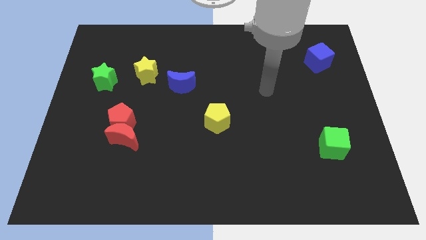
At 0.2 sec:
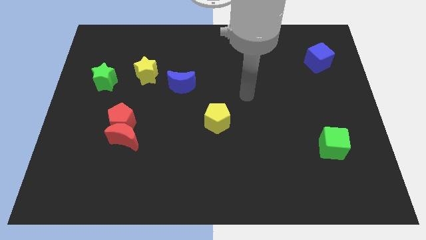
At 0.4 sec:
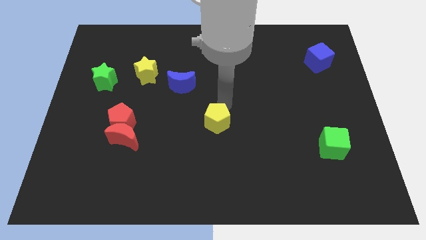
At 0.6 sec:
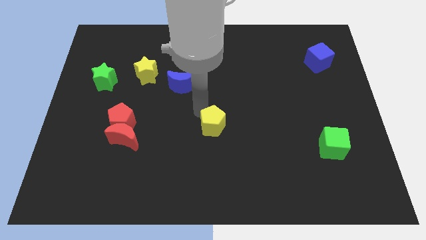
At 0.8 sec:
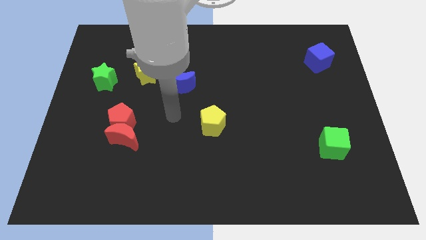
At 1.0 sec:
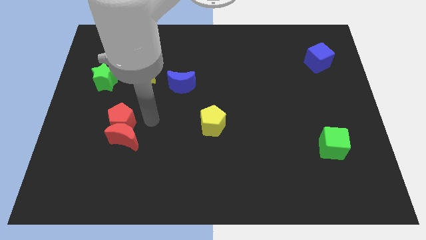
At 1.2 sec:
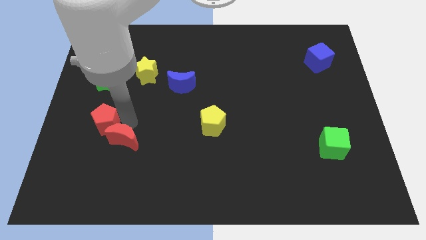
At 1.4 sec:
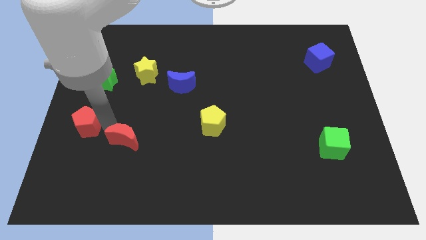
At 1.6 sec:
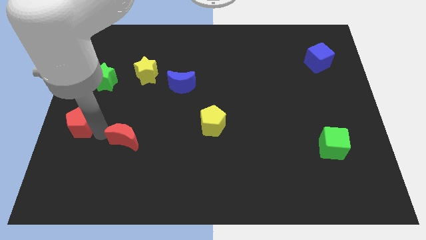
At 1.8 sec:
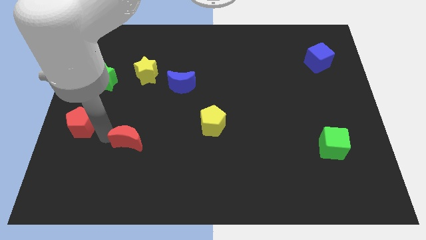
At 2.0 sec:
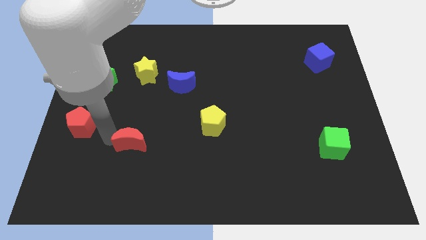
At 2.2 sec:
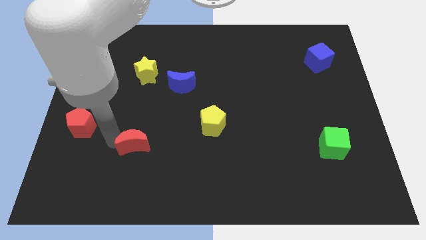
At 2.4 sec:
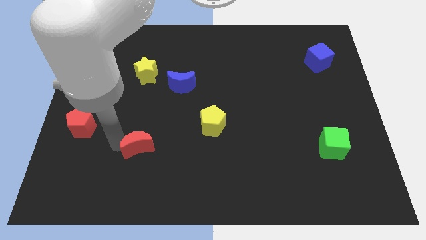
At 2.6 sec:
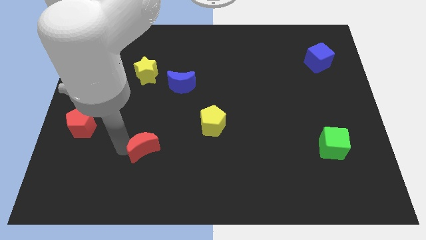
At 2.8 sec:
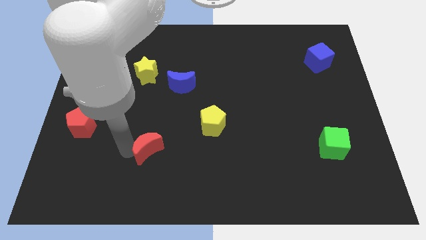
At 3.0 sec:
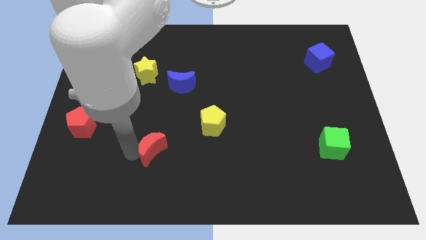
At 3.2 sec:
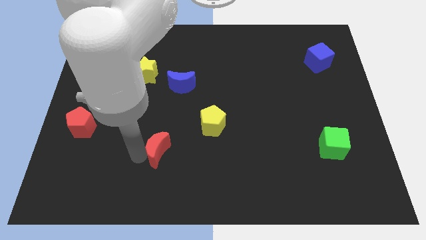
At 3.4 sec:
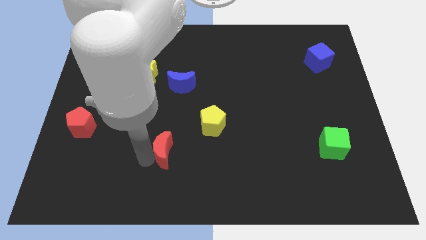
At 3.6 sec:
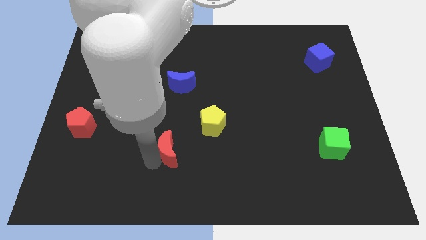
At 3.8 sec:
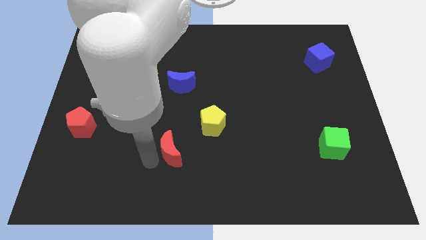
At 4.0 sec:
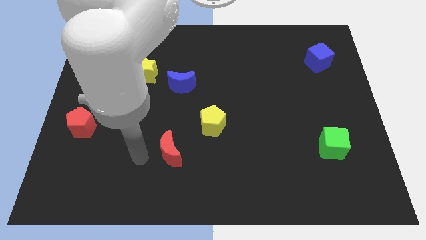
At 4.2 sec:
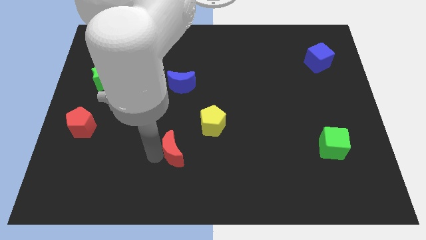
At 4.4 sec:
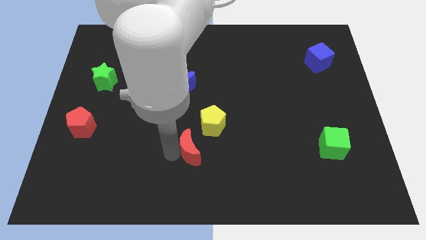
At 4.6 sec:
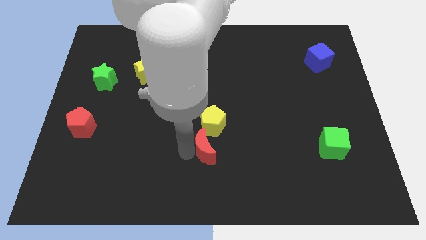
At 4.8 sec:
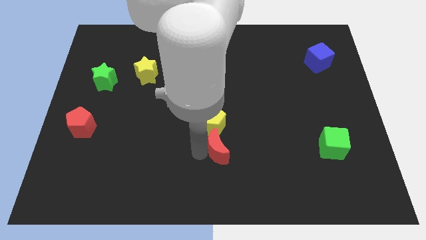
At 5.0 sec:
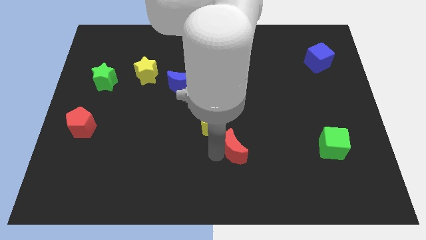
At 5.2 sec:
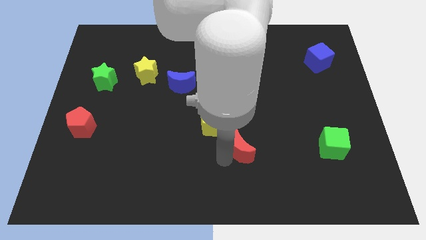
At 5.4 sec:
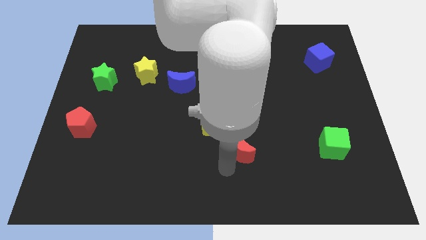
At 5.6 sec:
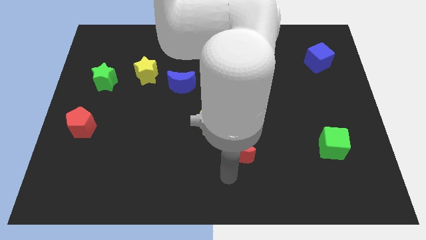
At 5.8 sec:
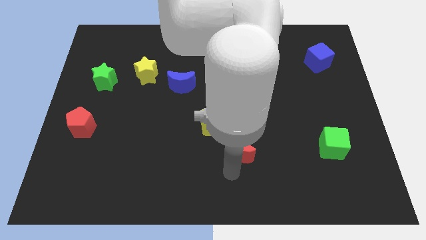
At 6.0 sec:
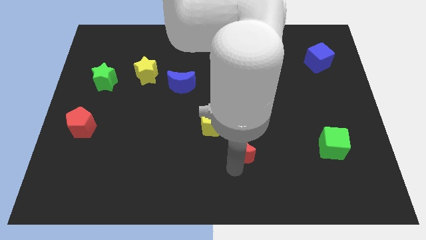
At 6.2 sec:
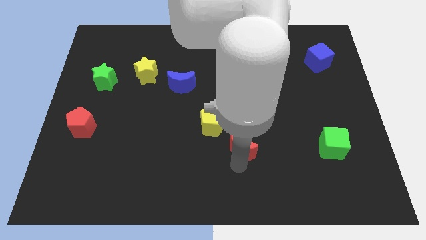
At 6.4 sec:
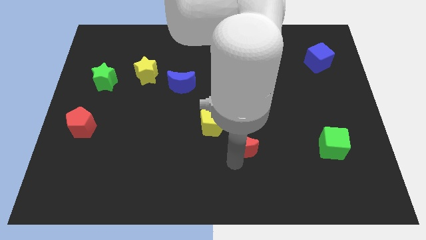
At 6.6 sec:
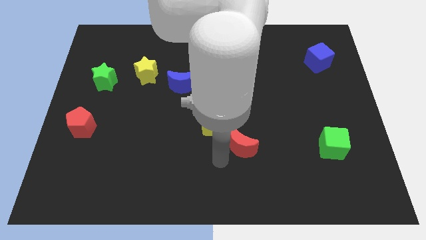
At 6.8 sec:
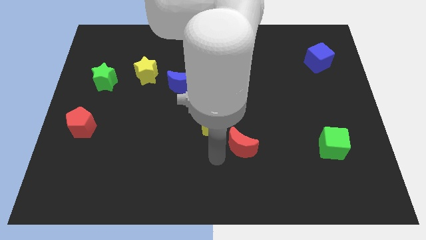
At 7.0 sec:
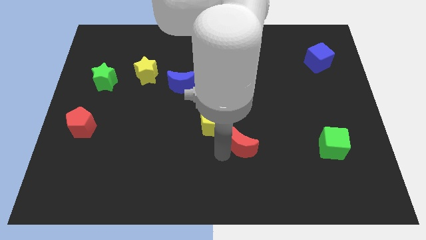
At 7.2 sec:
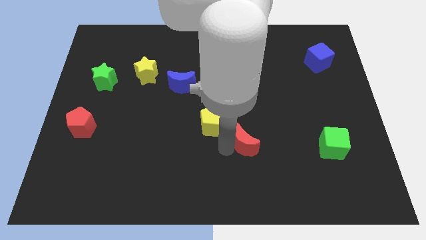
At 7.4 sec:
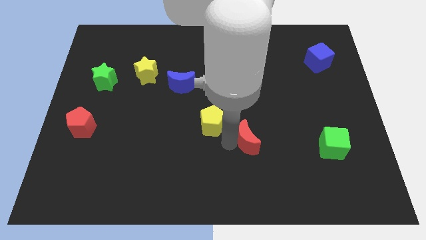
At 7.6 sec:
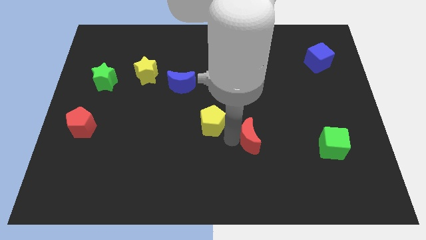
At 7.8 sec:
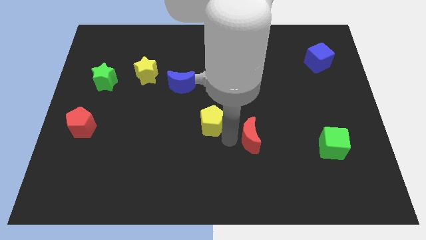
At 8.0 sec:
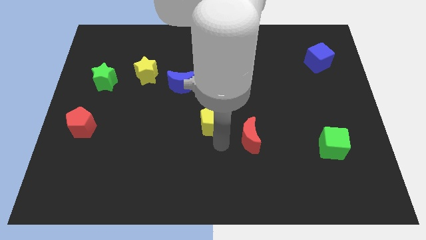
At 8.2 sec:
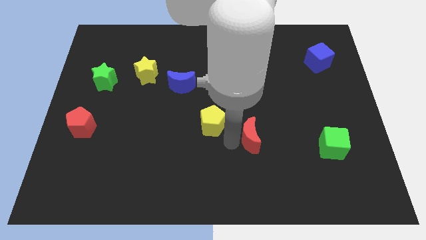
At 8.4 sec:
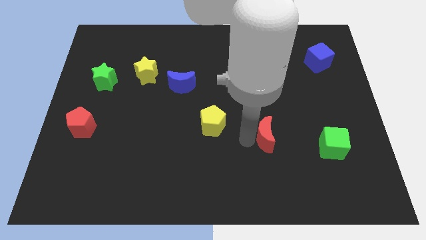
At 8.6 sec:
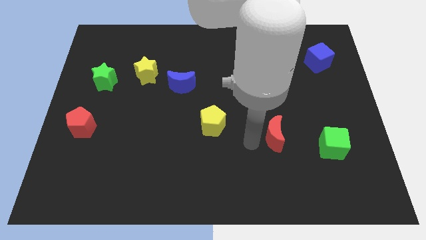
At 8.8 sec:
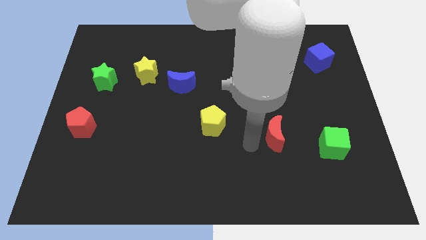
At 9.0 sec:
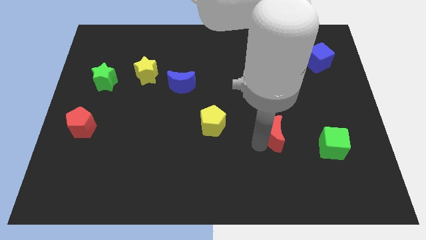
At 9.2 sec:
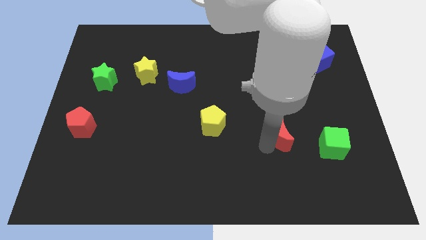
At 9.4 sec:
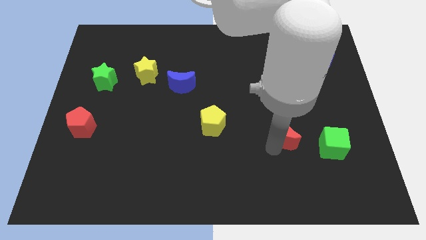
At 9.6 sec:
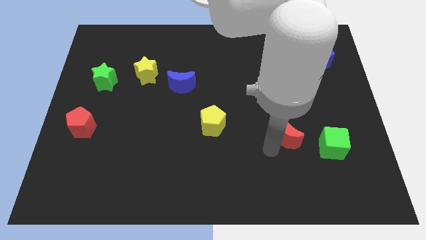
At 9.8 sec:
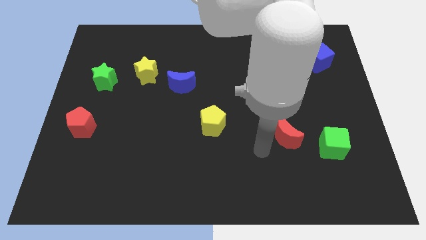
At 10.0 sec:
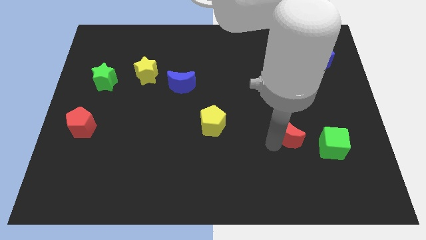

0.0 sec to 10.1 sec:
put the red moon to the top left side of the green cube

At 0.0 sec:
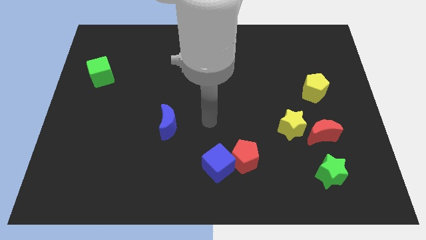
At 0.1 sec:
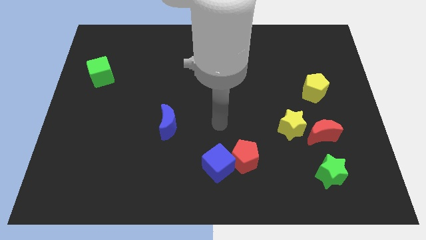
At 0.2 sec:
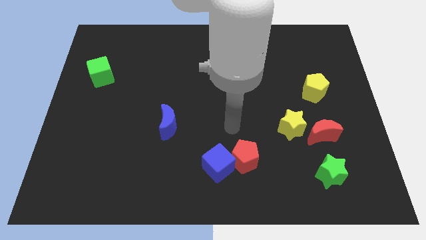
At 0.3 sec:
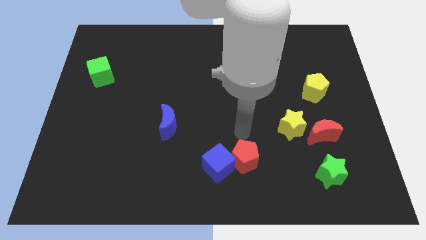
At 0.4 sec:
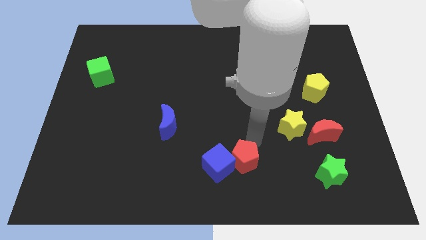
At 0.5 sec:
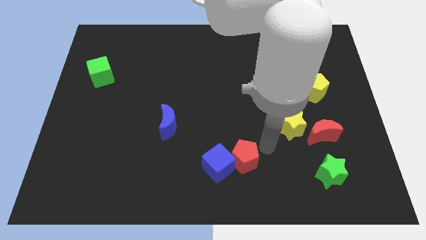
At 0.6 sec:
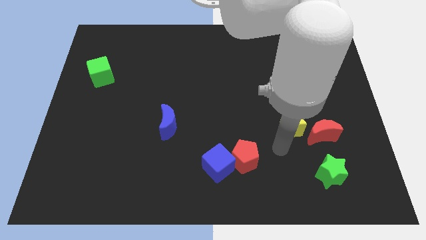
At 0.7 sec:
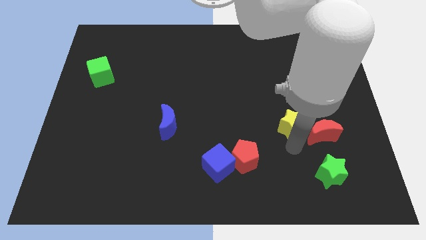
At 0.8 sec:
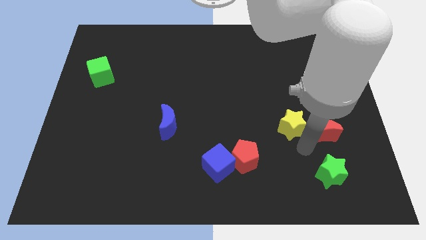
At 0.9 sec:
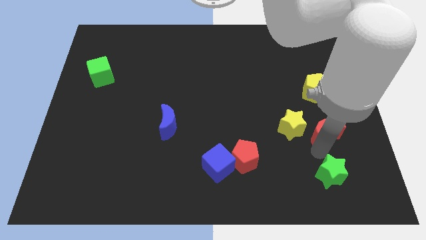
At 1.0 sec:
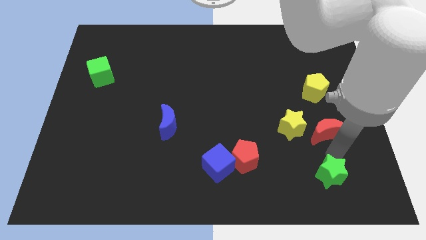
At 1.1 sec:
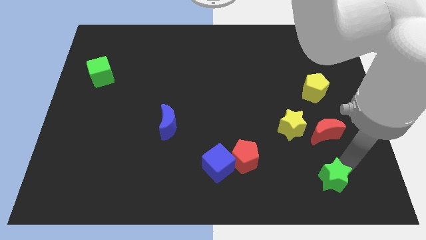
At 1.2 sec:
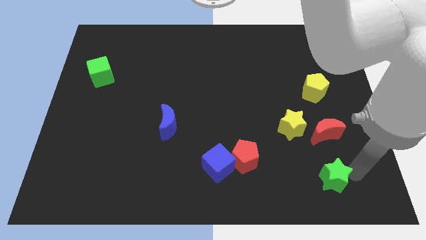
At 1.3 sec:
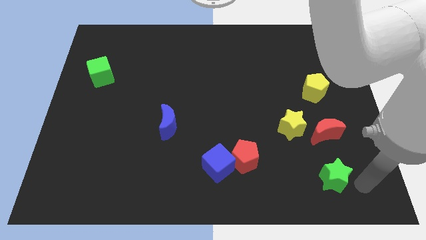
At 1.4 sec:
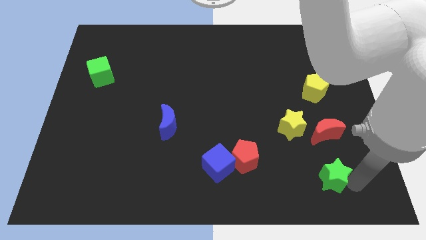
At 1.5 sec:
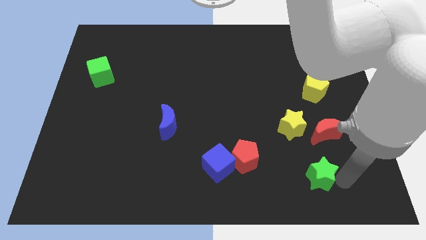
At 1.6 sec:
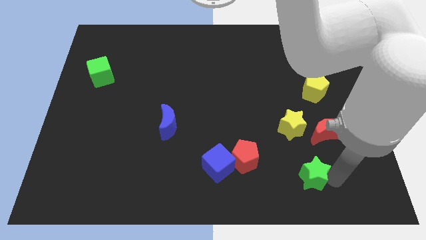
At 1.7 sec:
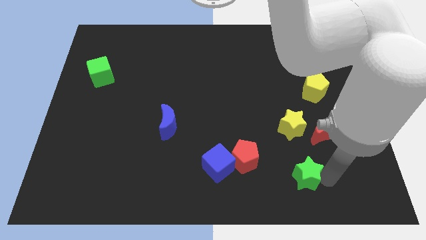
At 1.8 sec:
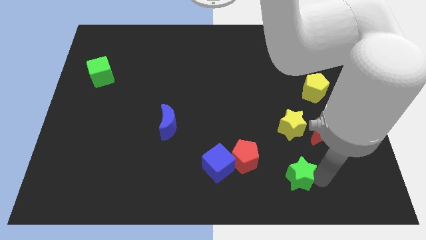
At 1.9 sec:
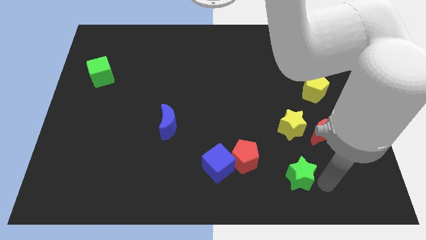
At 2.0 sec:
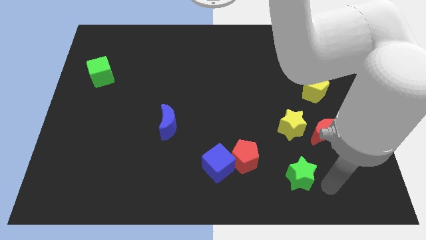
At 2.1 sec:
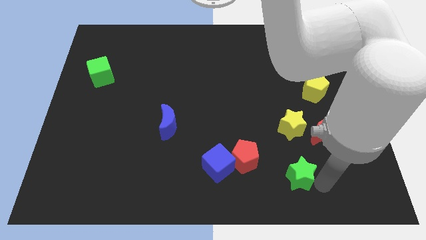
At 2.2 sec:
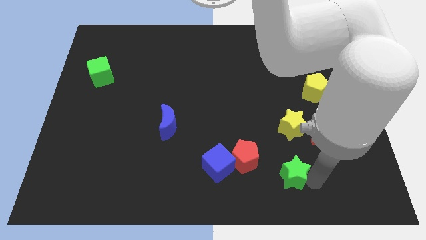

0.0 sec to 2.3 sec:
move the green star just right of the blue cube
